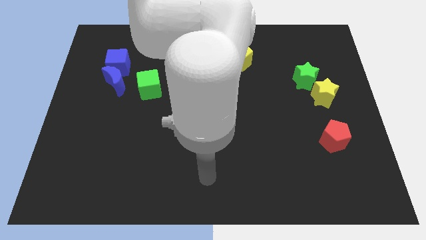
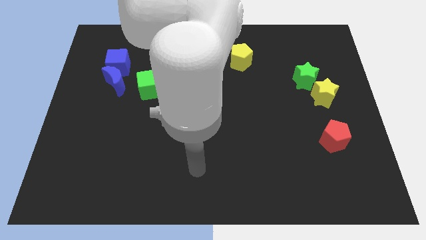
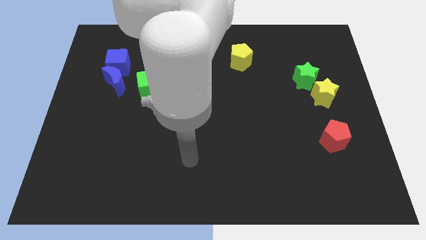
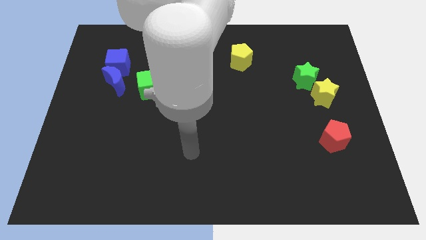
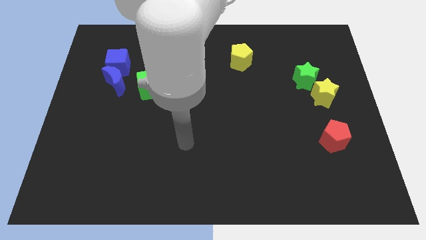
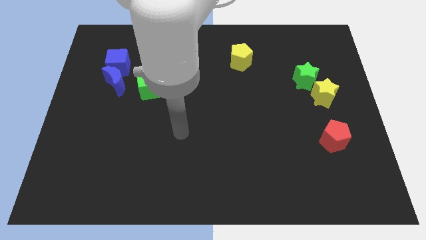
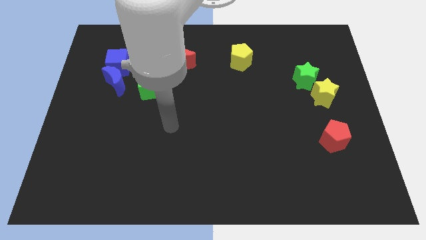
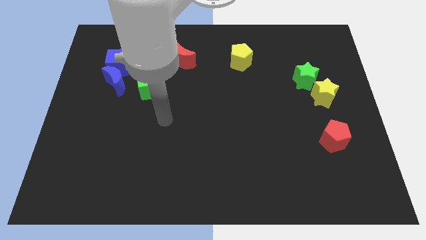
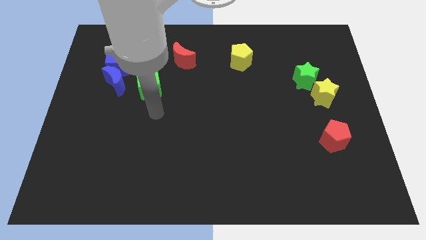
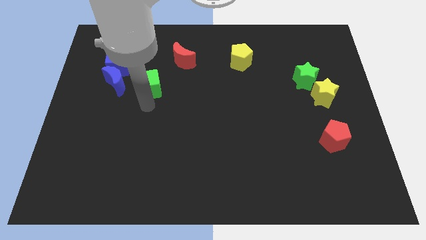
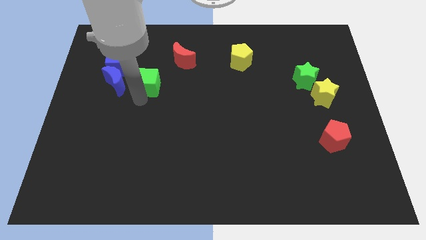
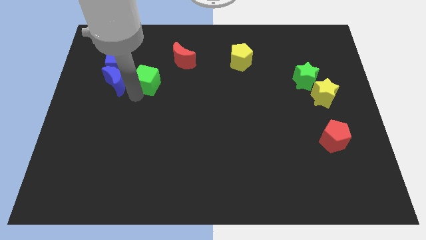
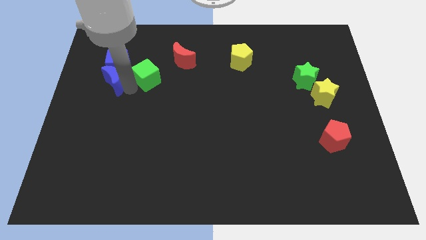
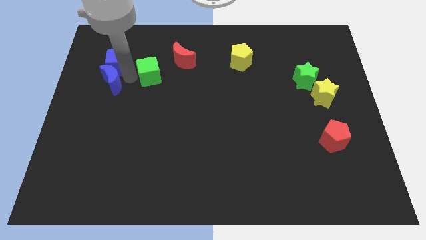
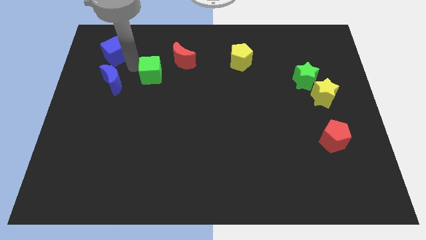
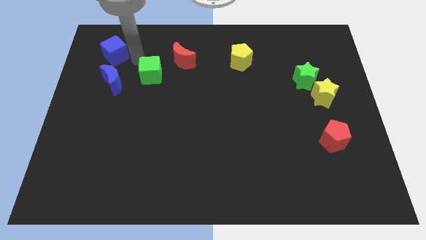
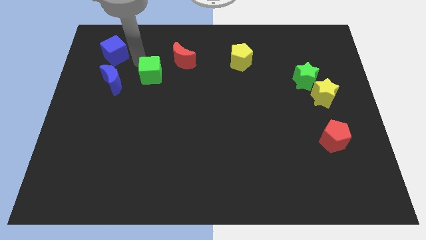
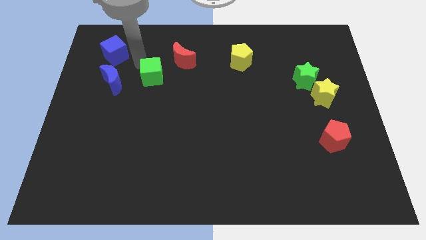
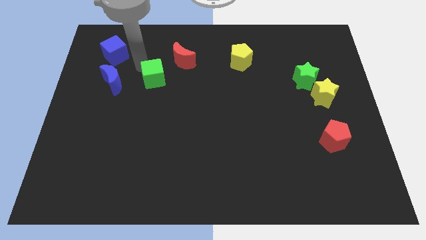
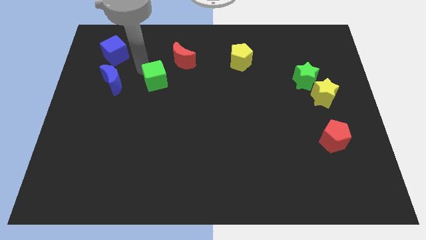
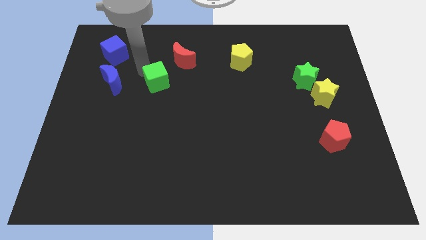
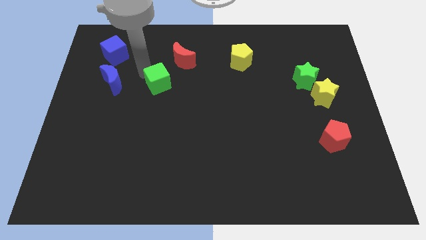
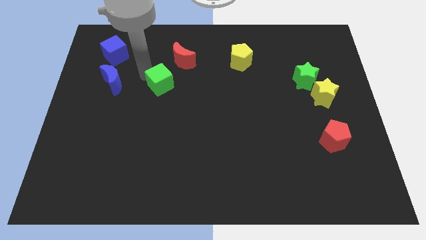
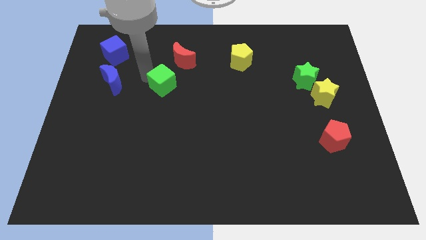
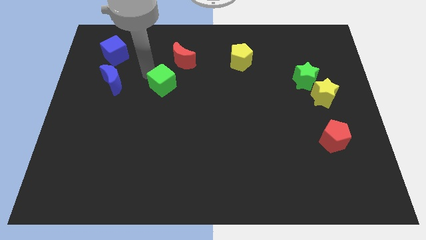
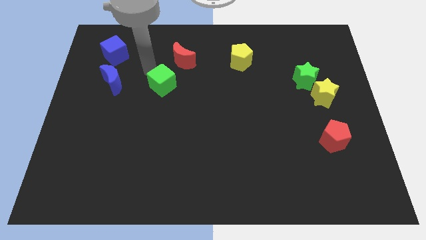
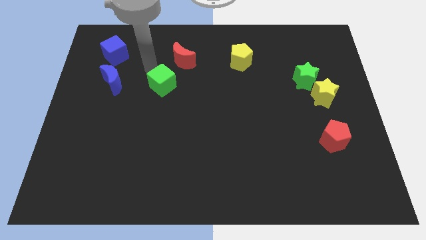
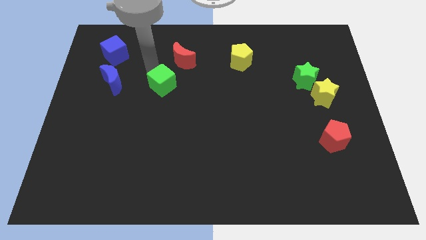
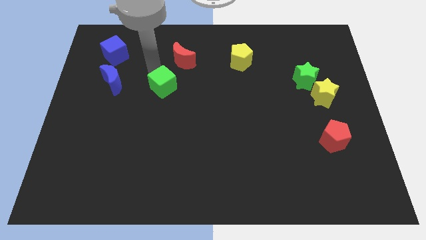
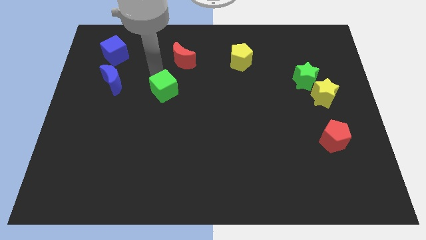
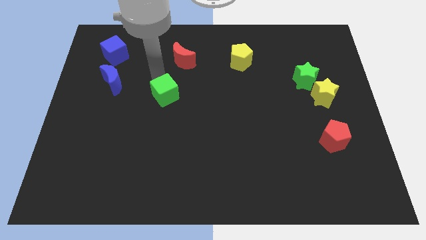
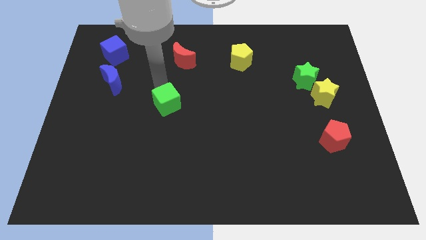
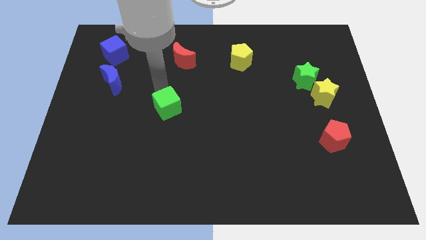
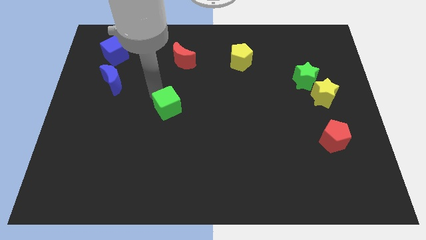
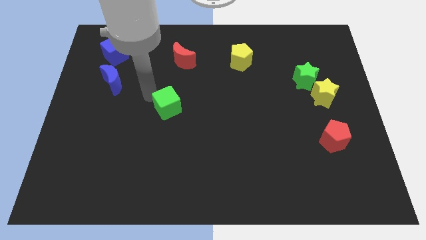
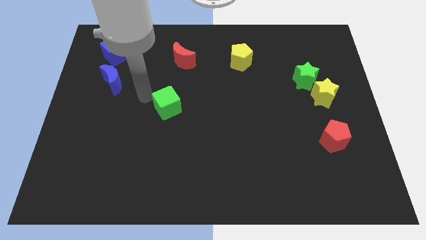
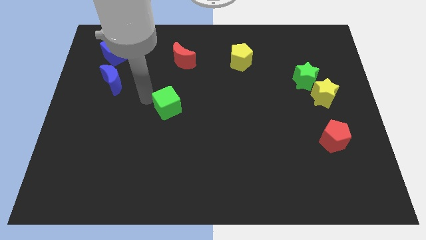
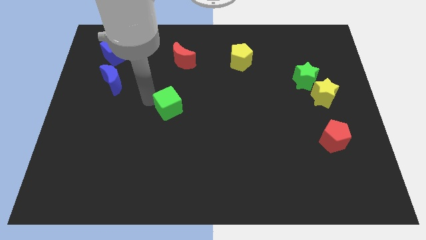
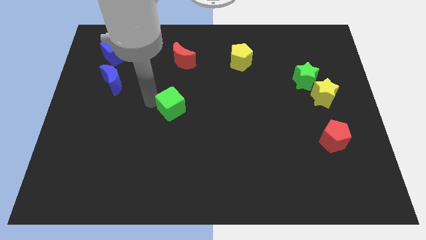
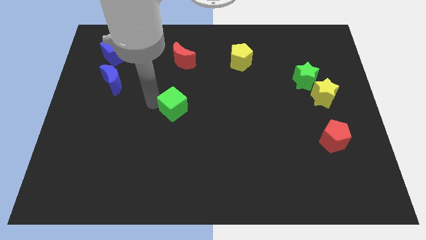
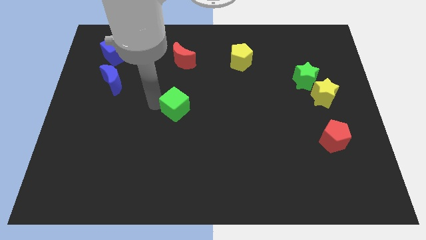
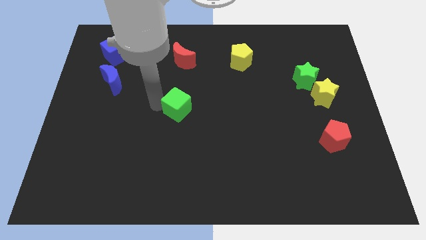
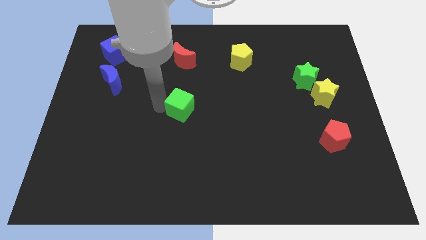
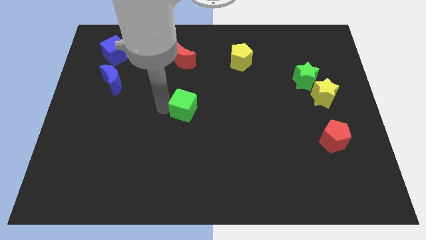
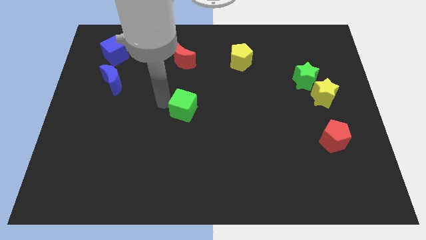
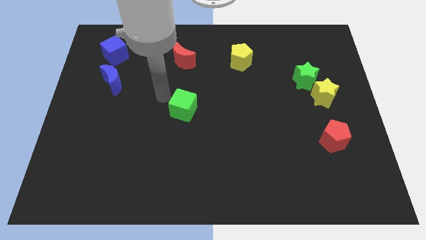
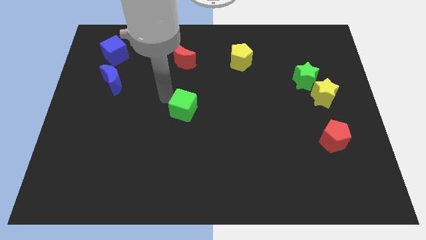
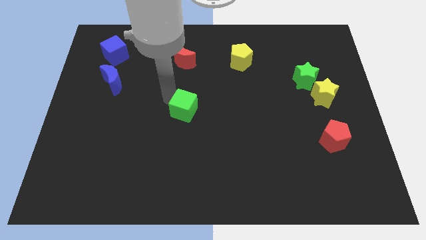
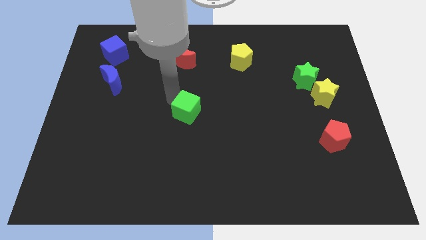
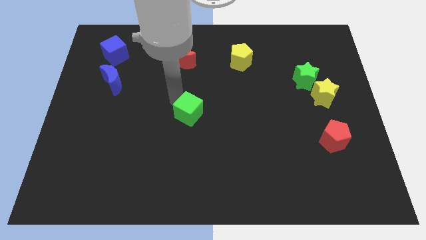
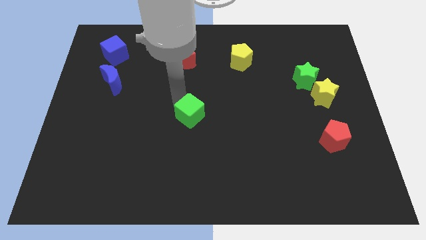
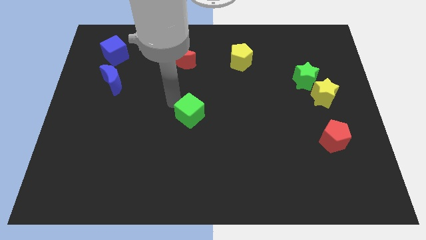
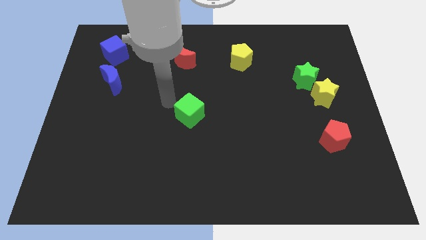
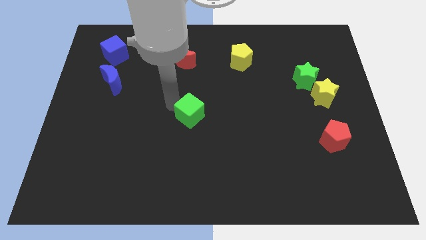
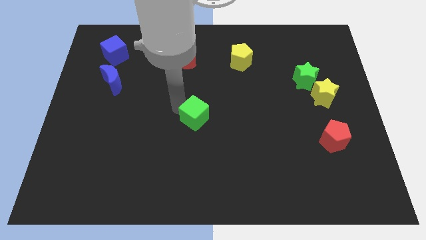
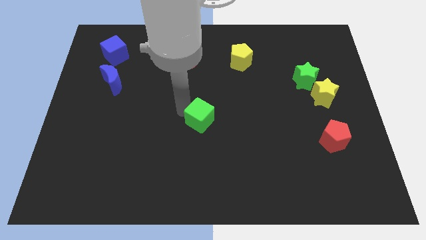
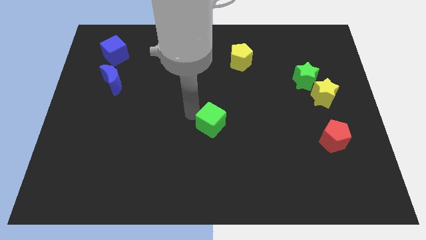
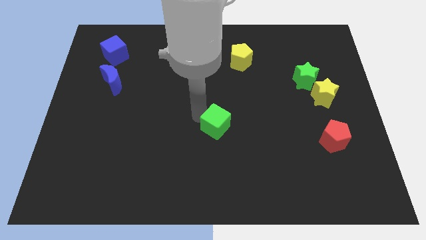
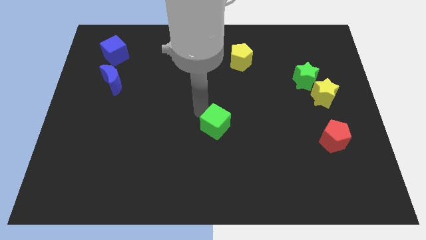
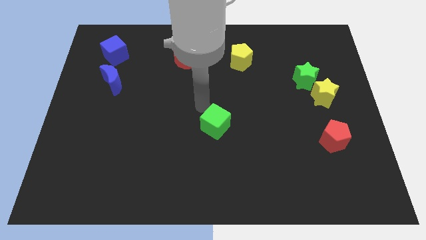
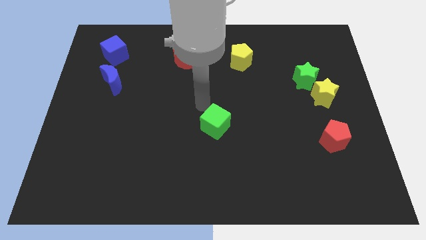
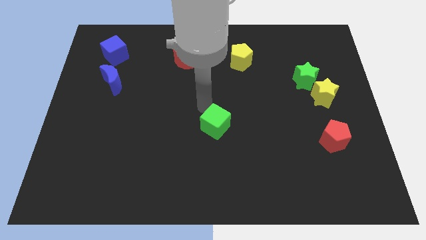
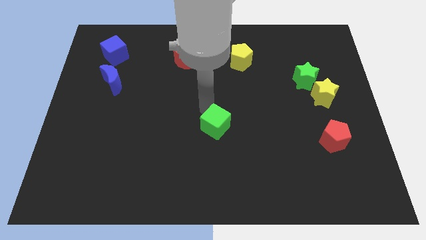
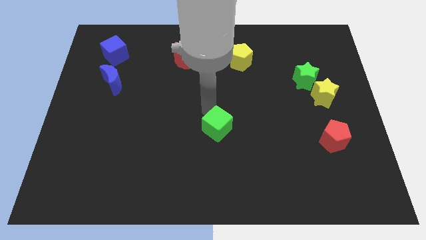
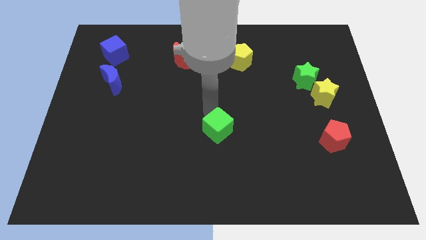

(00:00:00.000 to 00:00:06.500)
push the green cube diagonally downwards and to the right

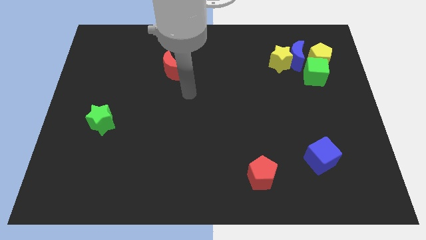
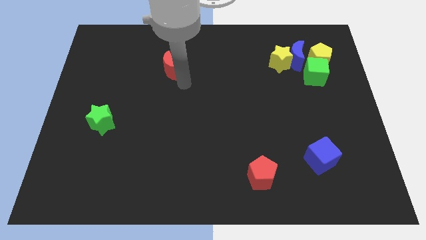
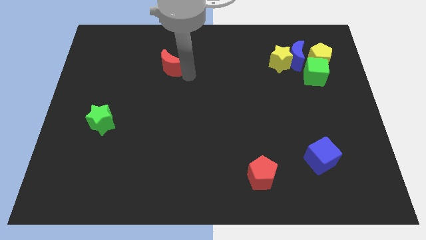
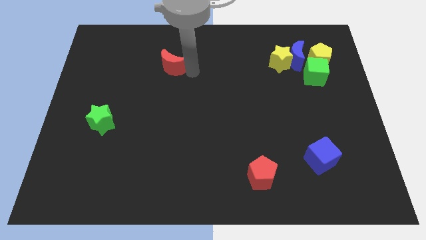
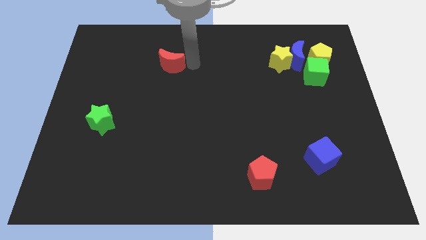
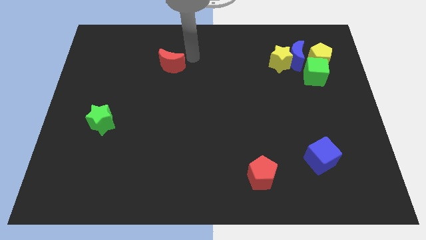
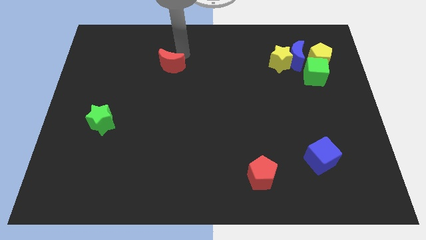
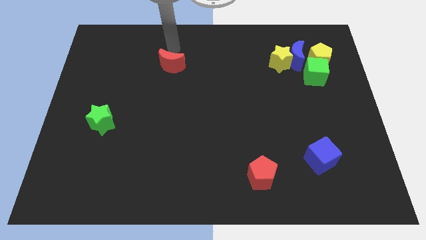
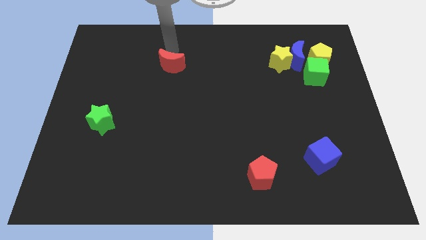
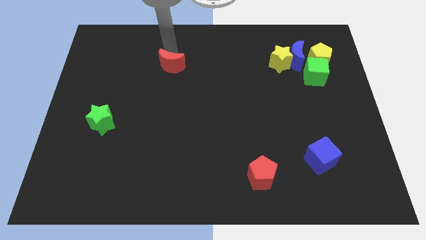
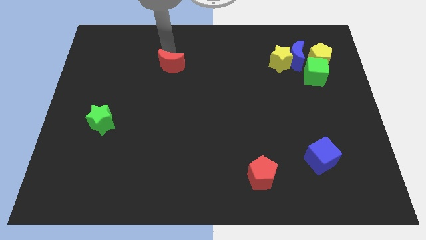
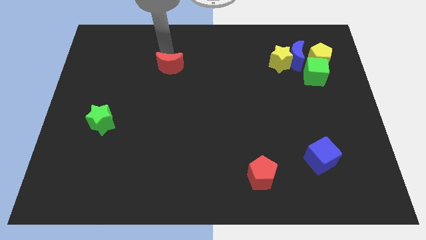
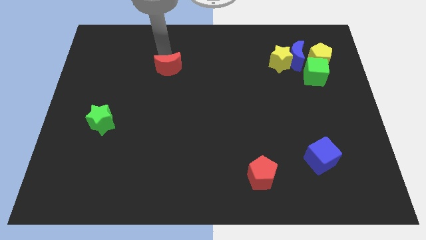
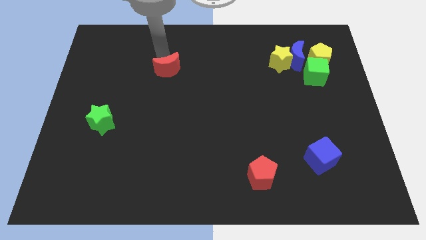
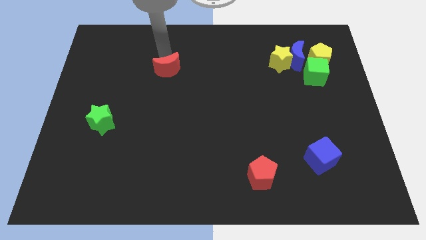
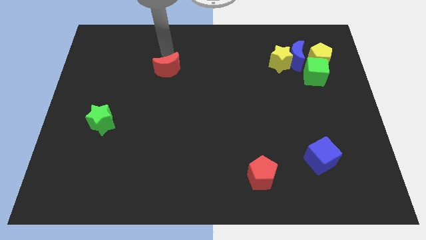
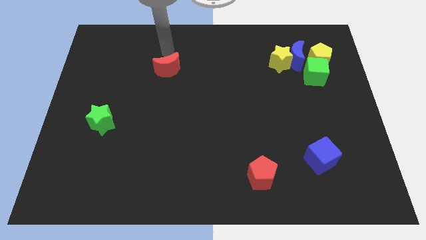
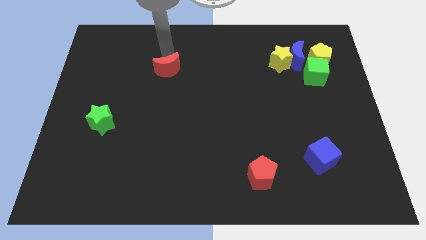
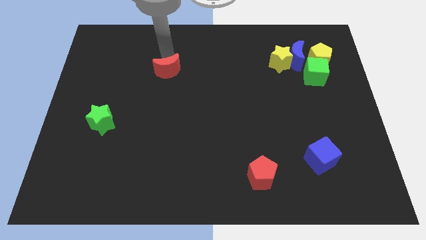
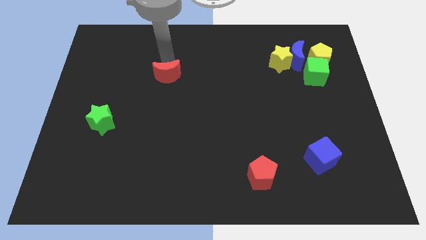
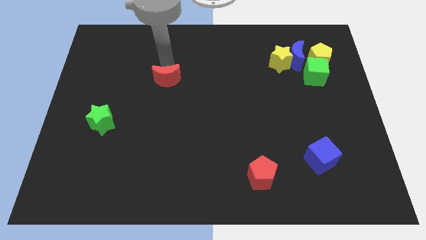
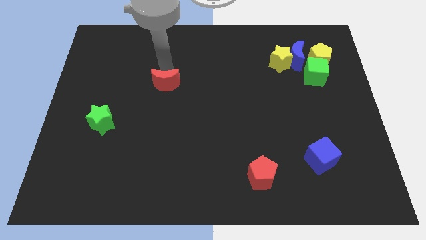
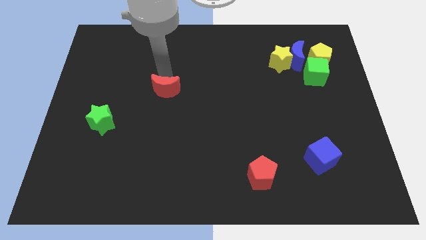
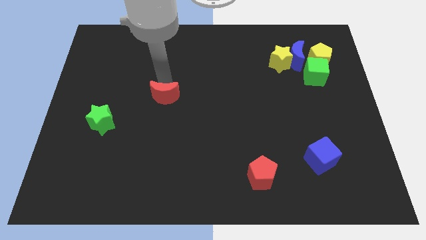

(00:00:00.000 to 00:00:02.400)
move the red moon slightly down
